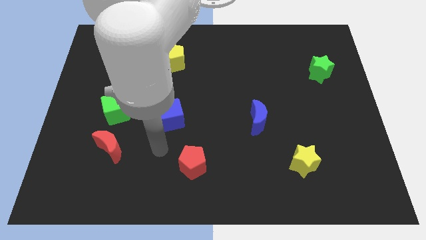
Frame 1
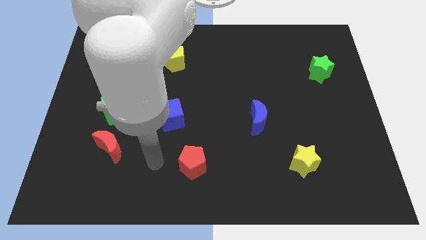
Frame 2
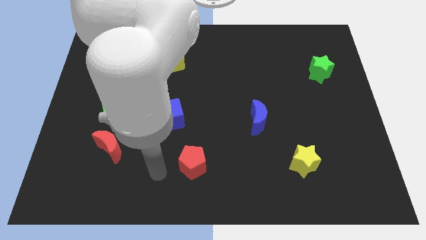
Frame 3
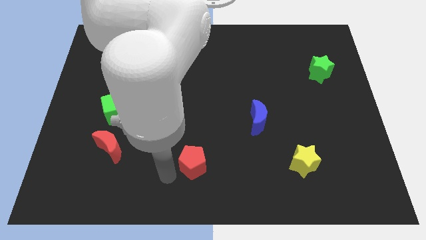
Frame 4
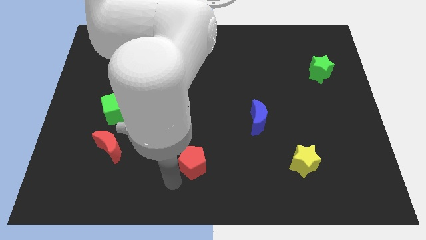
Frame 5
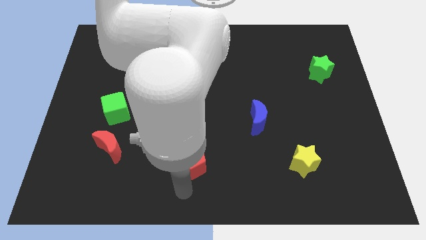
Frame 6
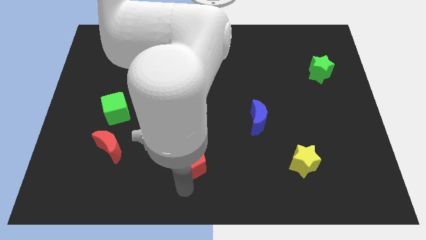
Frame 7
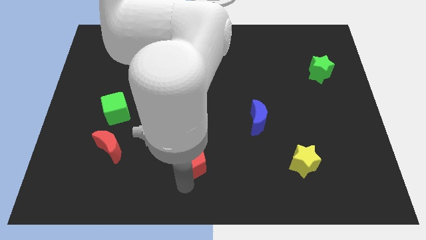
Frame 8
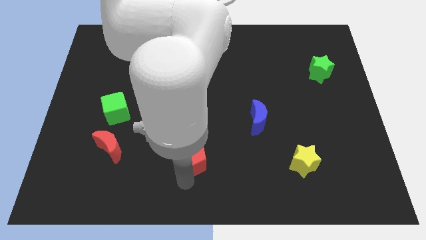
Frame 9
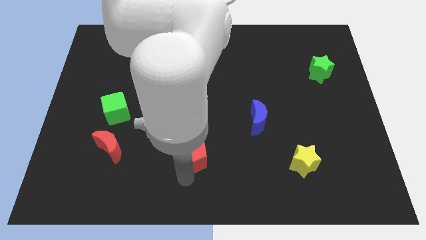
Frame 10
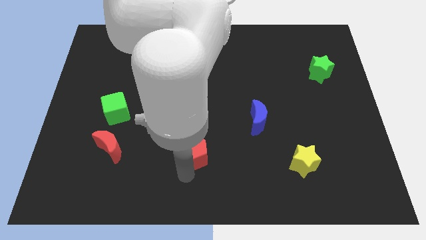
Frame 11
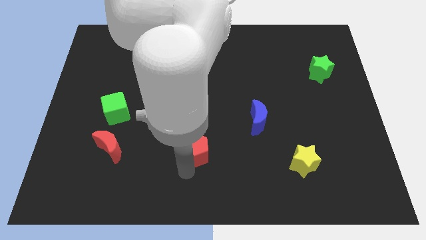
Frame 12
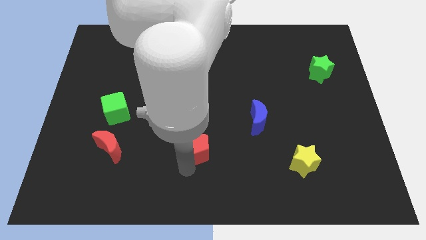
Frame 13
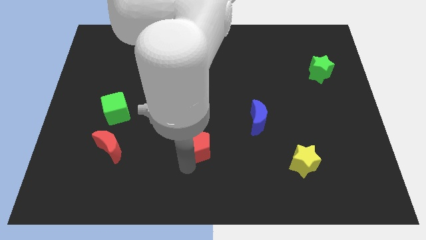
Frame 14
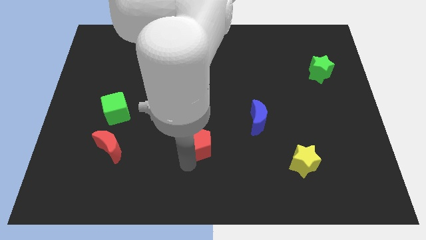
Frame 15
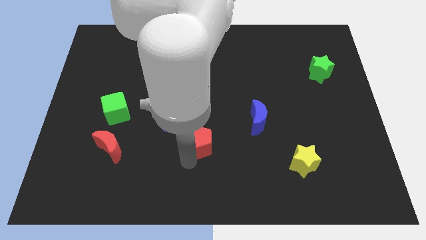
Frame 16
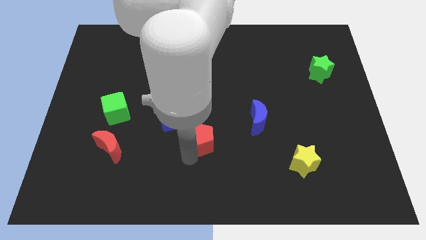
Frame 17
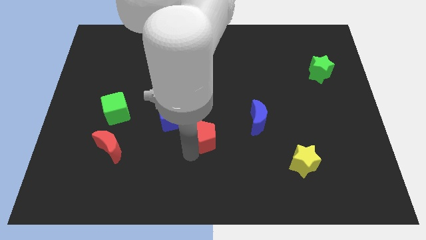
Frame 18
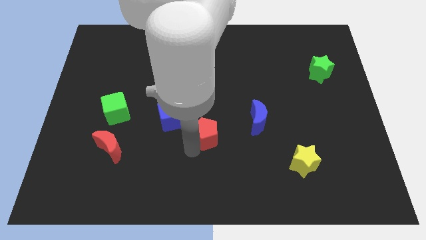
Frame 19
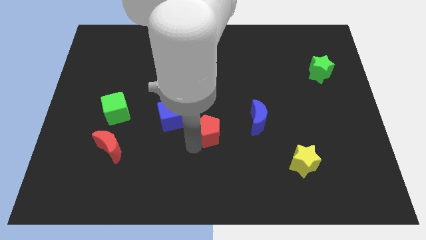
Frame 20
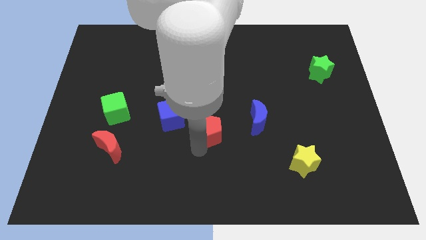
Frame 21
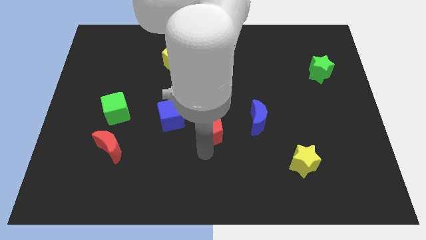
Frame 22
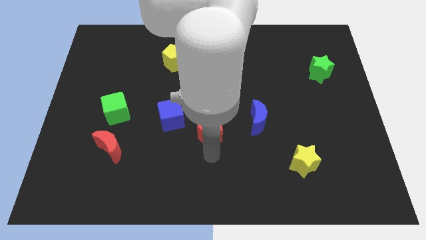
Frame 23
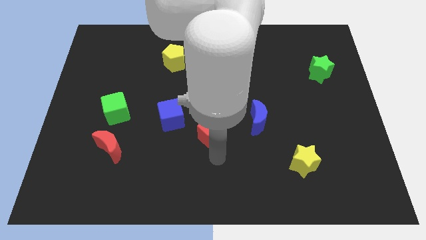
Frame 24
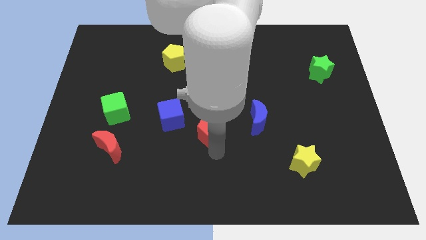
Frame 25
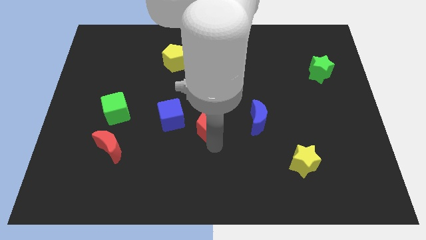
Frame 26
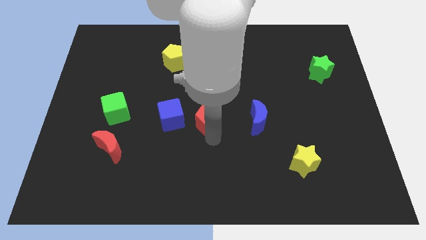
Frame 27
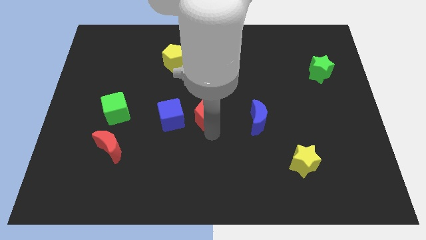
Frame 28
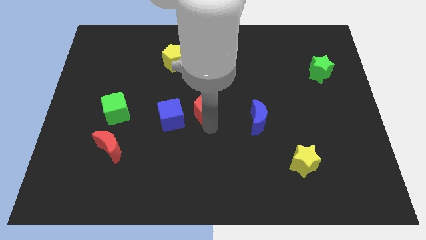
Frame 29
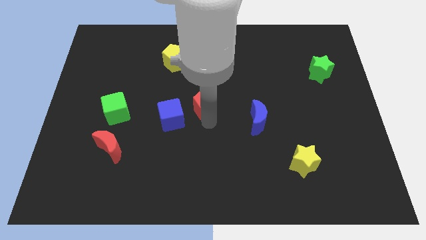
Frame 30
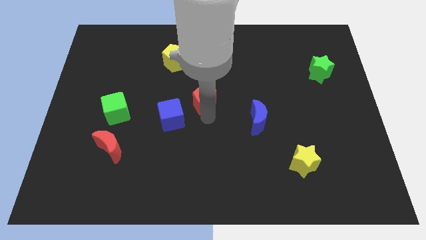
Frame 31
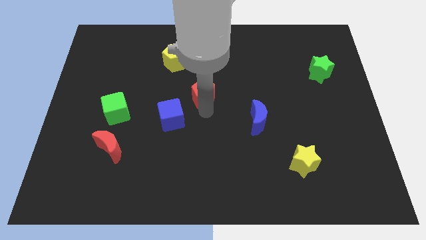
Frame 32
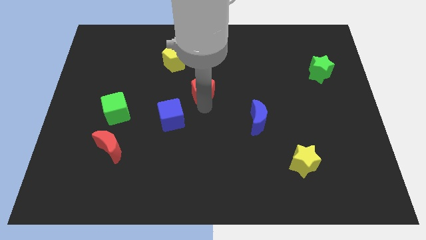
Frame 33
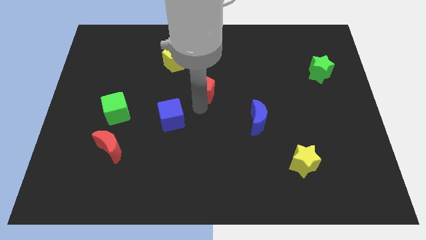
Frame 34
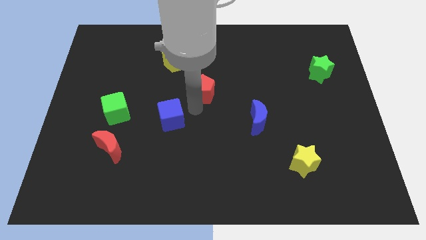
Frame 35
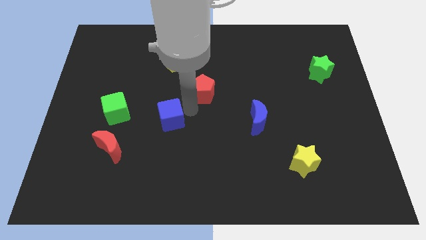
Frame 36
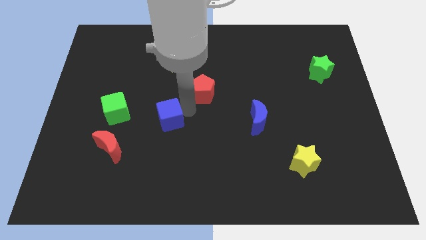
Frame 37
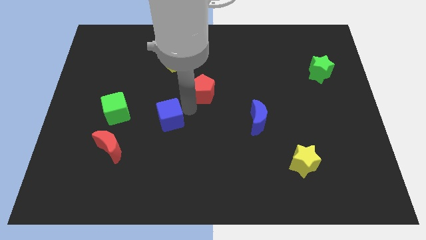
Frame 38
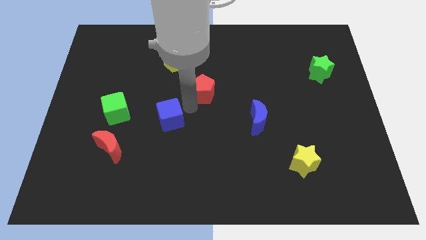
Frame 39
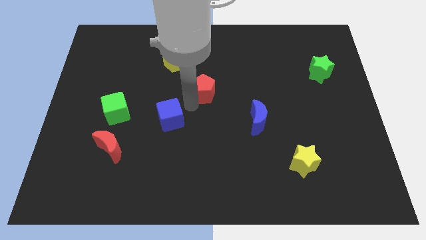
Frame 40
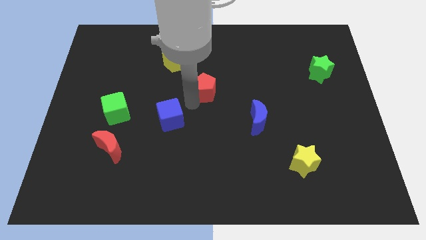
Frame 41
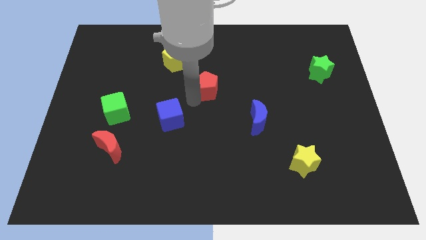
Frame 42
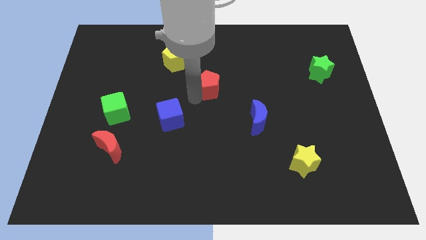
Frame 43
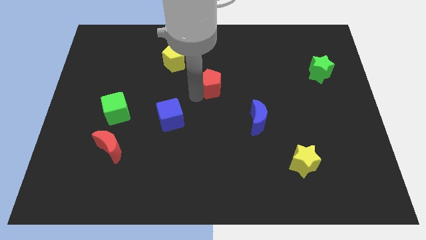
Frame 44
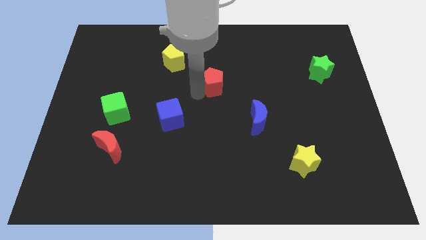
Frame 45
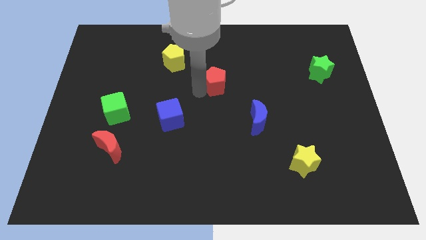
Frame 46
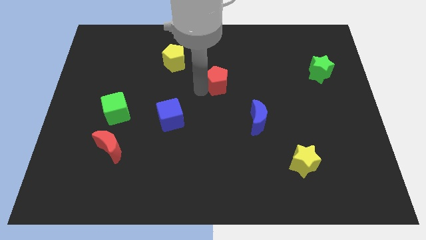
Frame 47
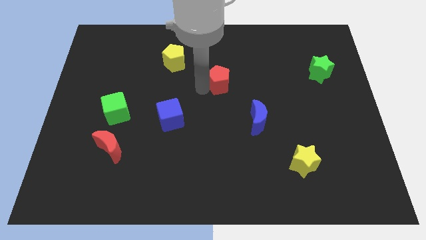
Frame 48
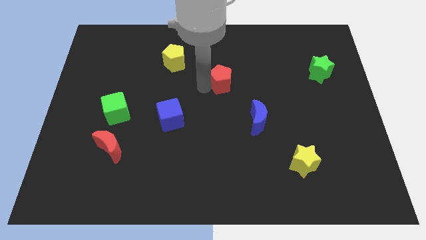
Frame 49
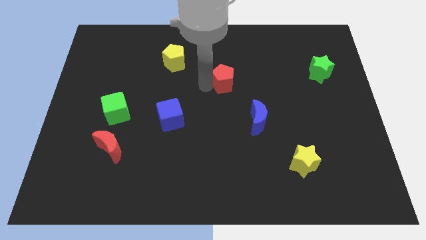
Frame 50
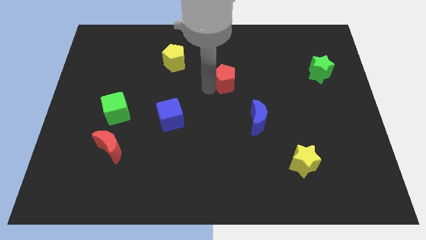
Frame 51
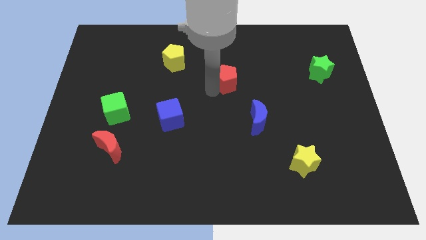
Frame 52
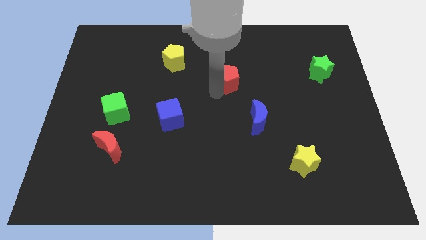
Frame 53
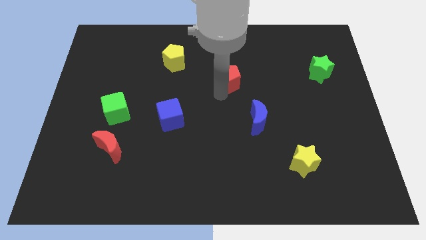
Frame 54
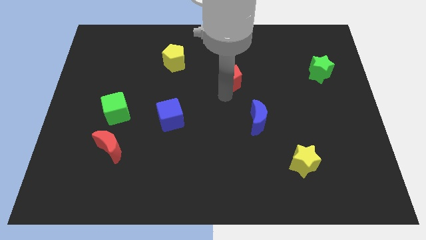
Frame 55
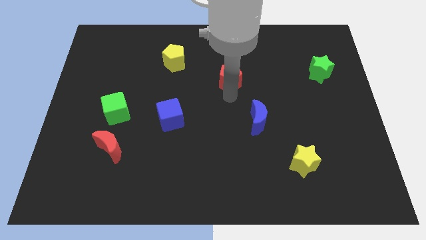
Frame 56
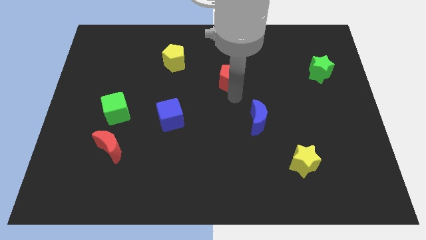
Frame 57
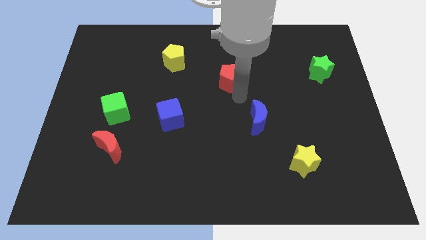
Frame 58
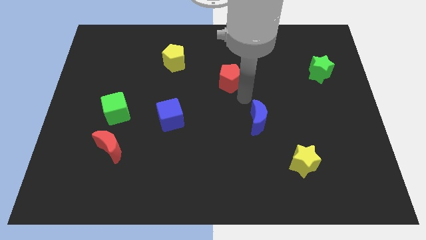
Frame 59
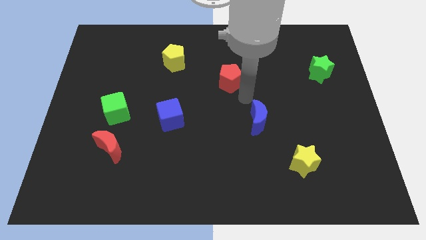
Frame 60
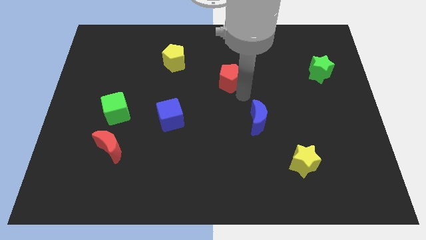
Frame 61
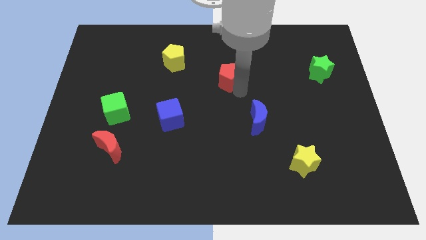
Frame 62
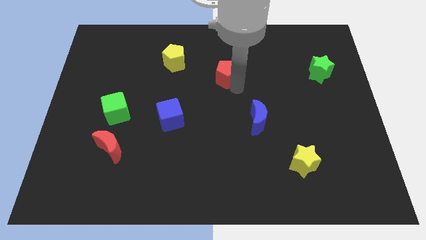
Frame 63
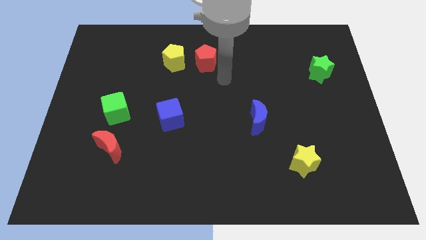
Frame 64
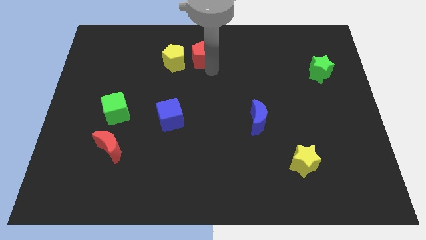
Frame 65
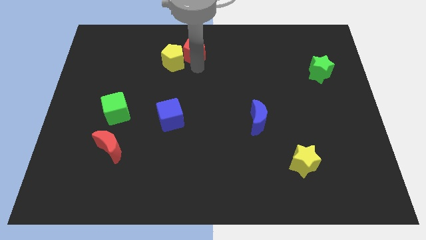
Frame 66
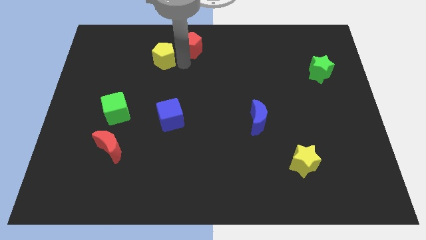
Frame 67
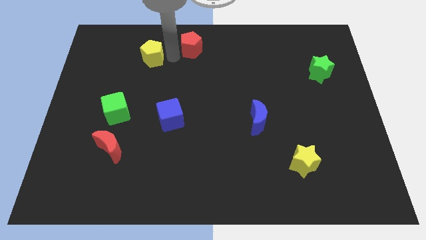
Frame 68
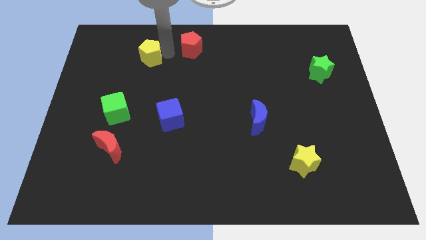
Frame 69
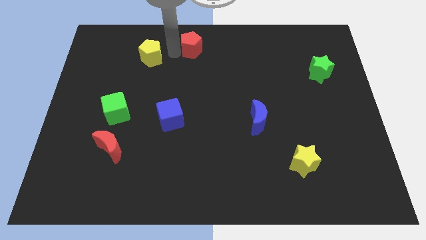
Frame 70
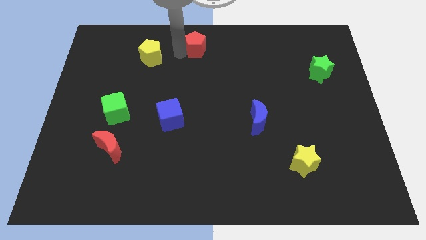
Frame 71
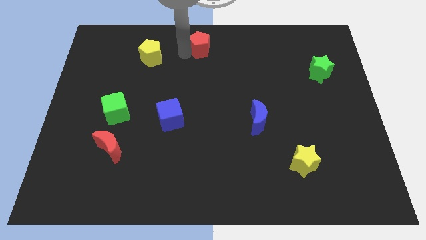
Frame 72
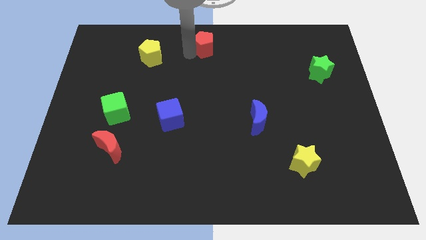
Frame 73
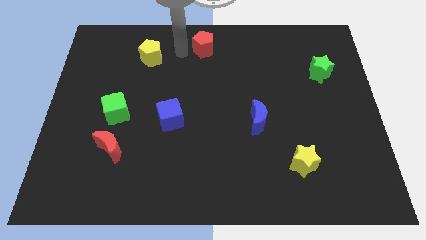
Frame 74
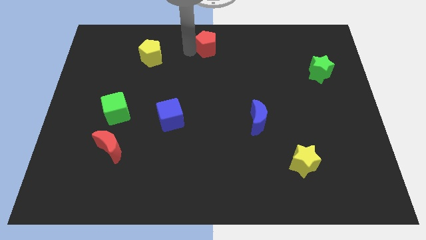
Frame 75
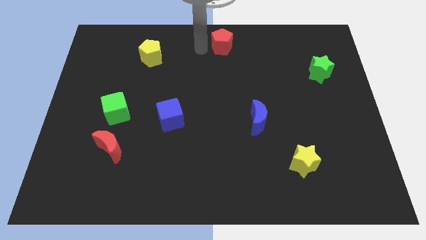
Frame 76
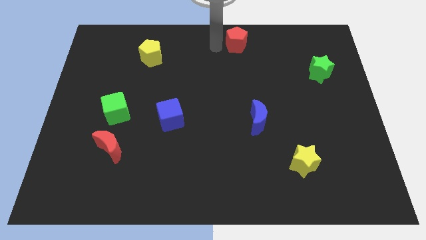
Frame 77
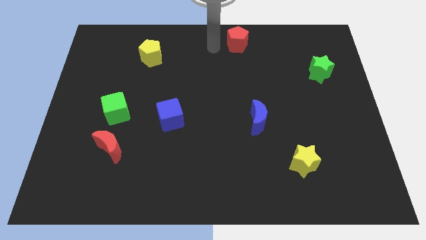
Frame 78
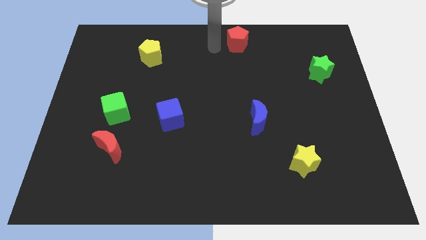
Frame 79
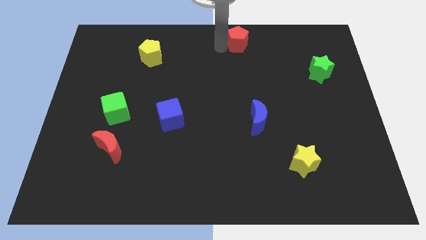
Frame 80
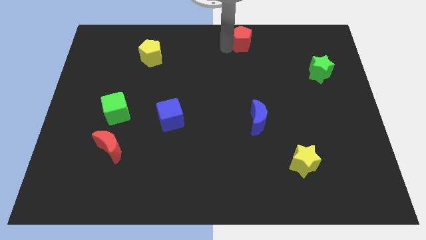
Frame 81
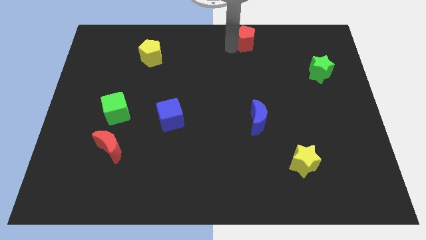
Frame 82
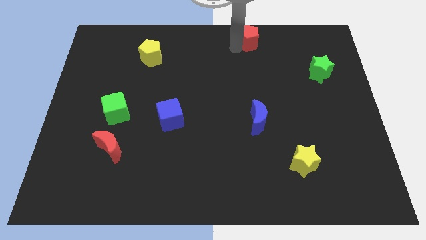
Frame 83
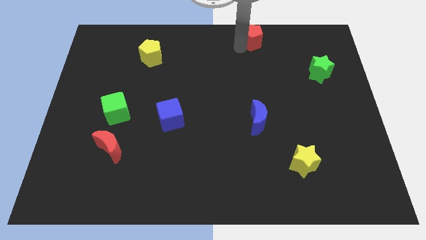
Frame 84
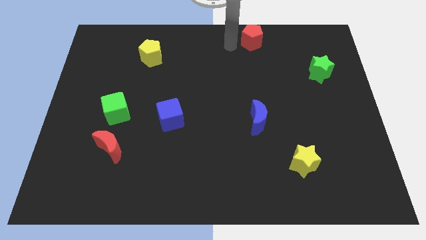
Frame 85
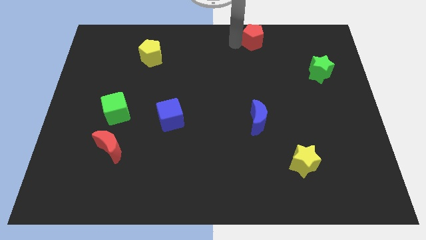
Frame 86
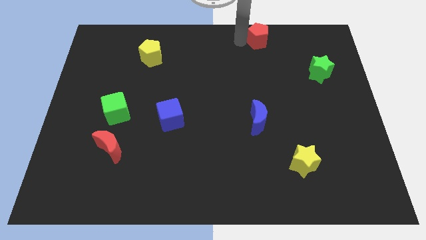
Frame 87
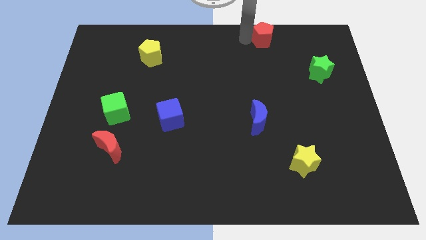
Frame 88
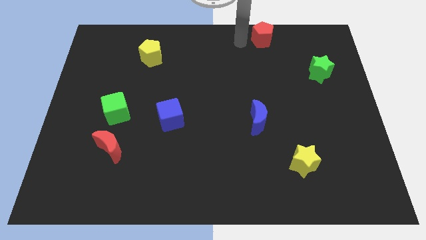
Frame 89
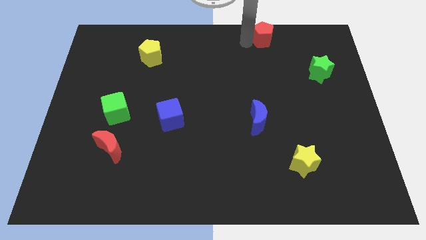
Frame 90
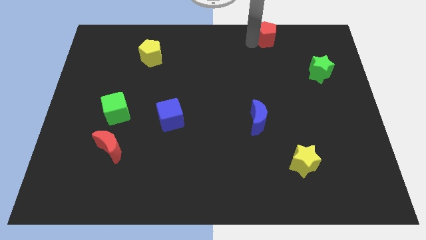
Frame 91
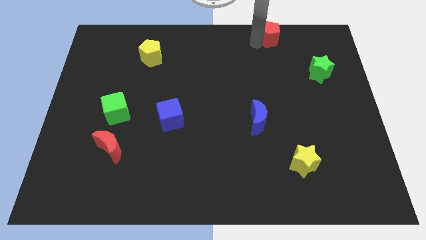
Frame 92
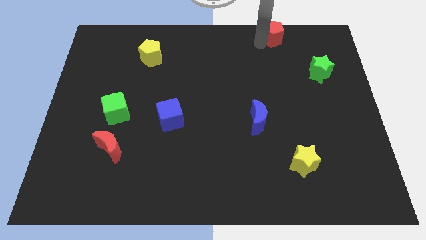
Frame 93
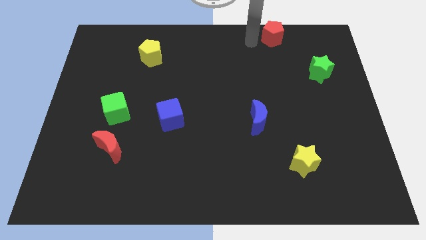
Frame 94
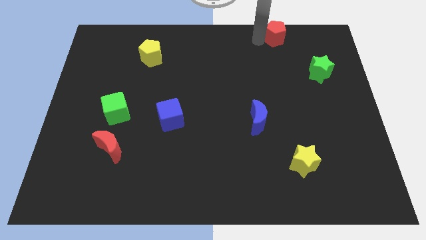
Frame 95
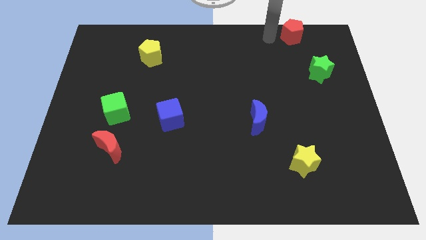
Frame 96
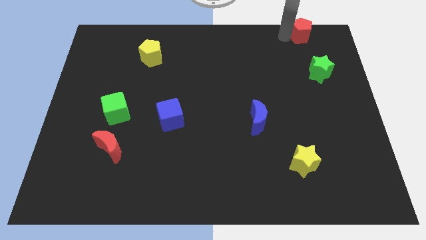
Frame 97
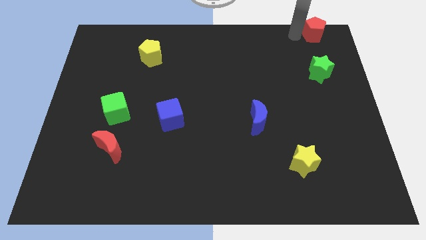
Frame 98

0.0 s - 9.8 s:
push the red pentagon to the top right
